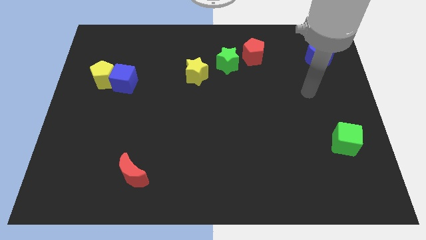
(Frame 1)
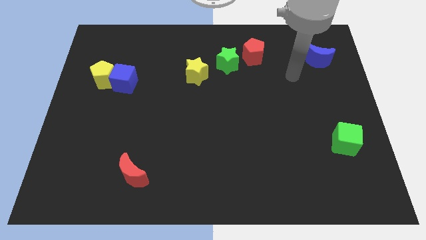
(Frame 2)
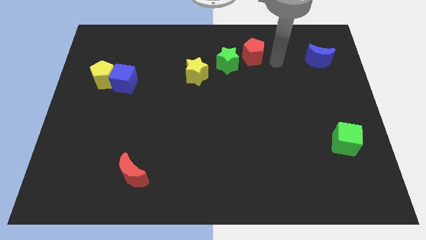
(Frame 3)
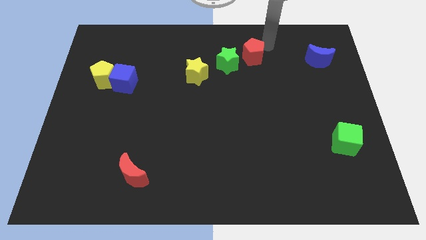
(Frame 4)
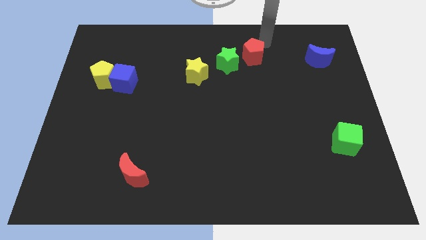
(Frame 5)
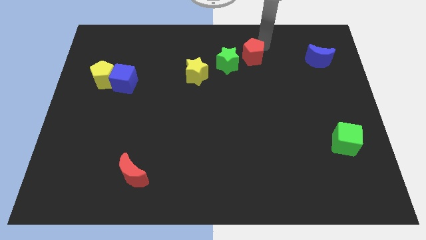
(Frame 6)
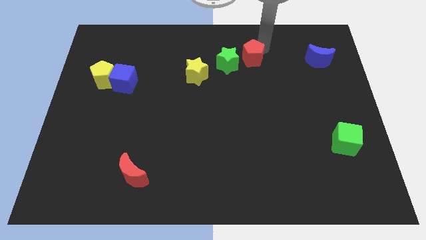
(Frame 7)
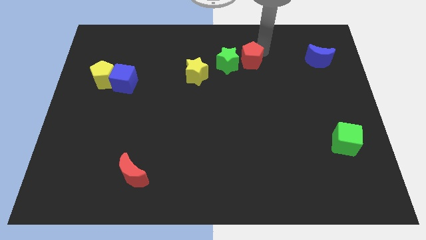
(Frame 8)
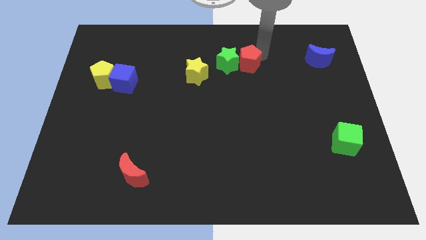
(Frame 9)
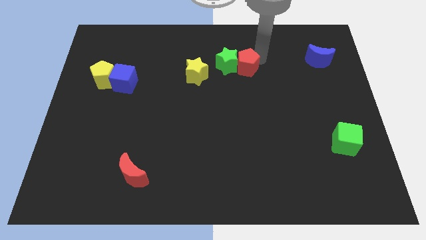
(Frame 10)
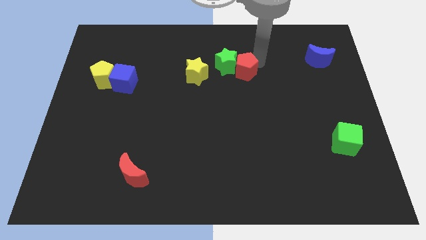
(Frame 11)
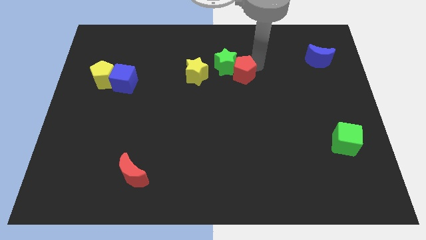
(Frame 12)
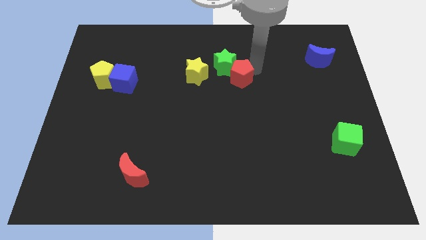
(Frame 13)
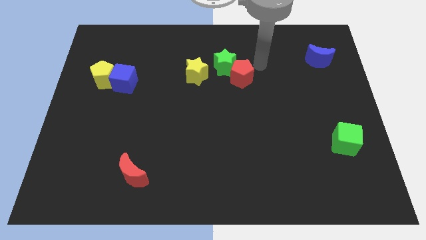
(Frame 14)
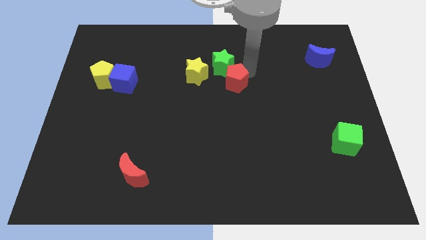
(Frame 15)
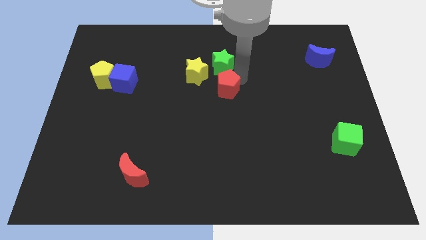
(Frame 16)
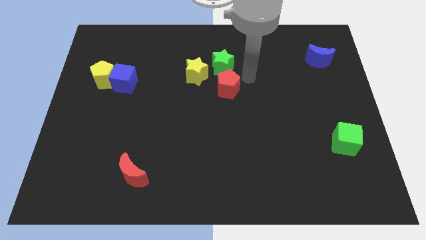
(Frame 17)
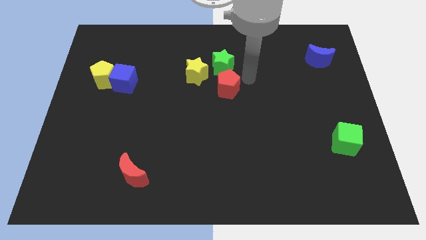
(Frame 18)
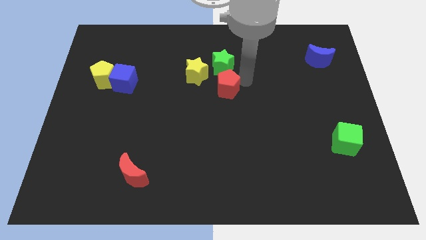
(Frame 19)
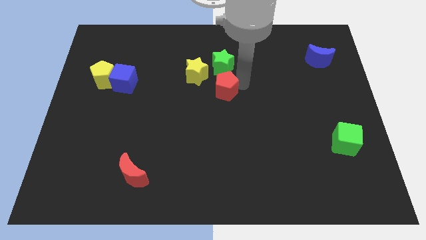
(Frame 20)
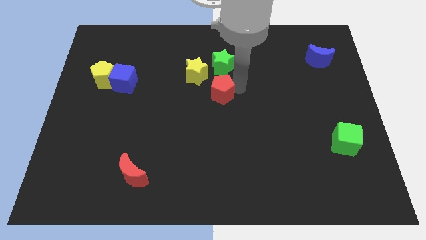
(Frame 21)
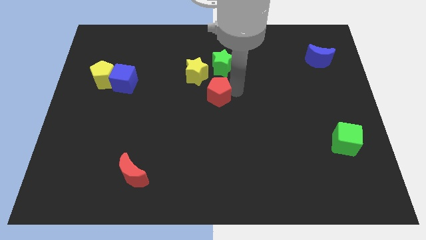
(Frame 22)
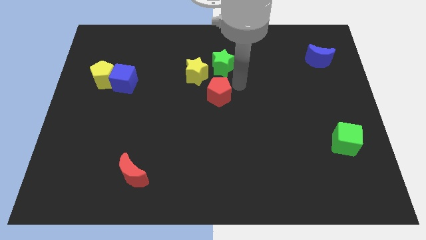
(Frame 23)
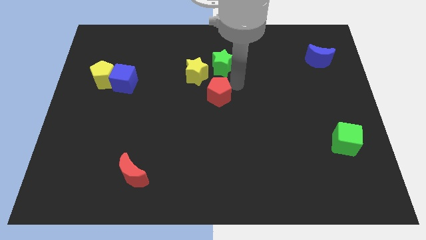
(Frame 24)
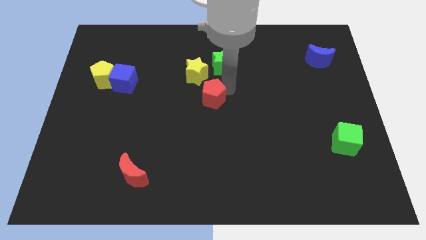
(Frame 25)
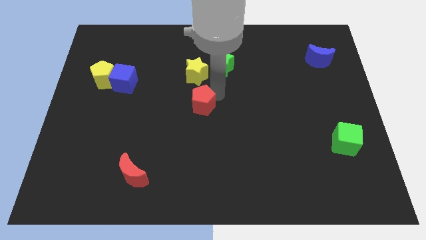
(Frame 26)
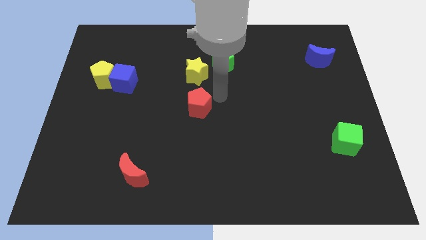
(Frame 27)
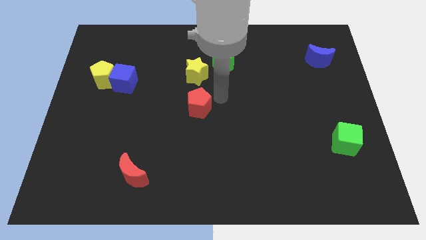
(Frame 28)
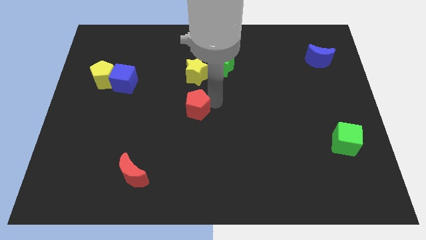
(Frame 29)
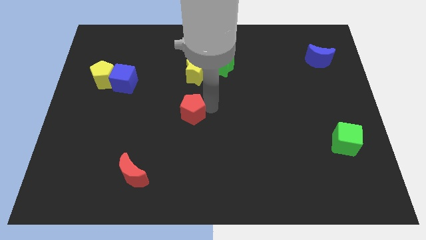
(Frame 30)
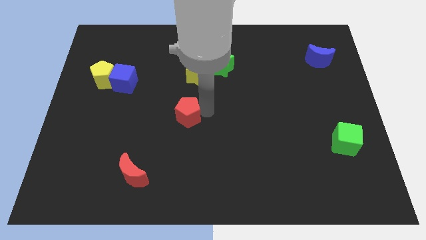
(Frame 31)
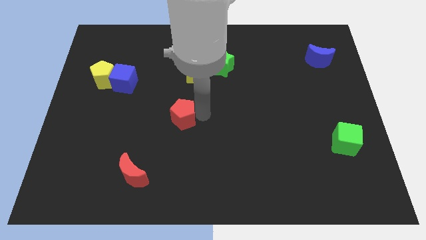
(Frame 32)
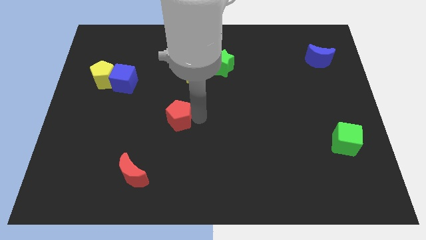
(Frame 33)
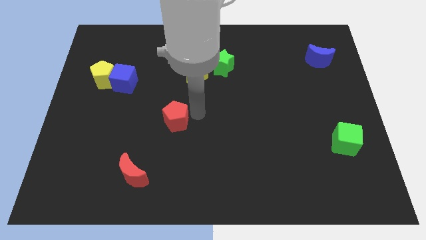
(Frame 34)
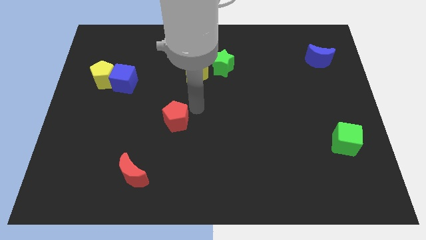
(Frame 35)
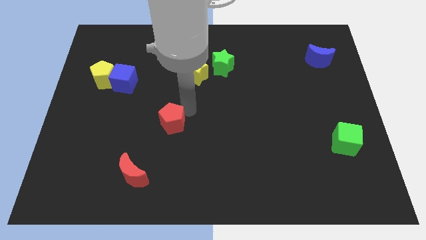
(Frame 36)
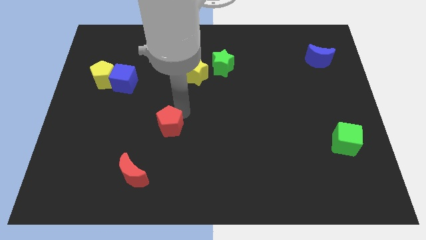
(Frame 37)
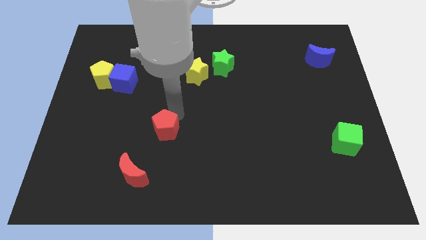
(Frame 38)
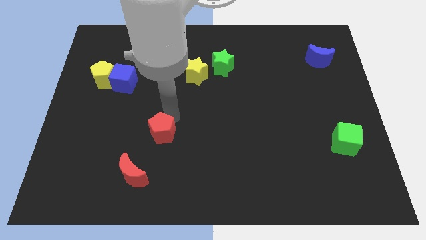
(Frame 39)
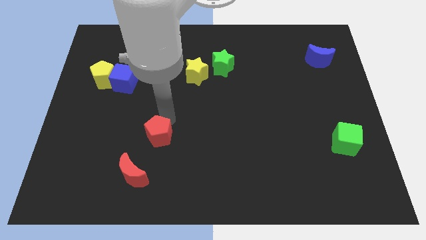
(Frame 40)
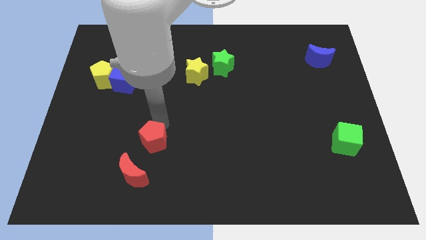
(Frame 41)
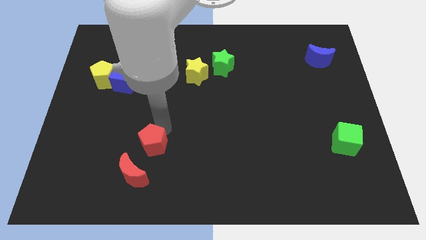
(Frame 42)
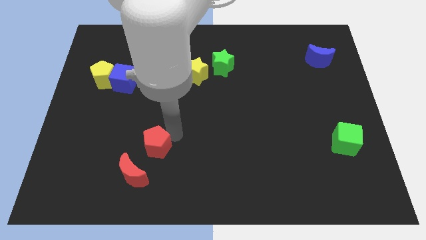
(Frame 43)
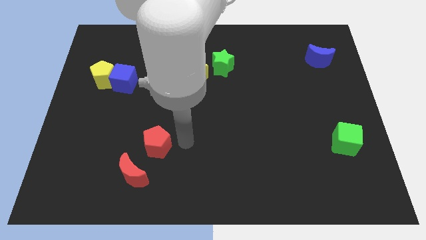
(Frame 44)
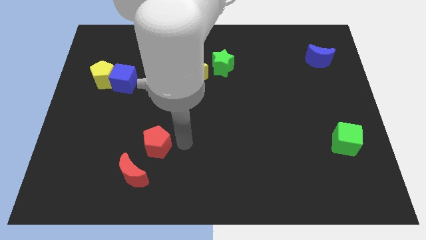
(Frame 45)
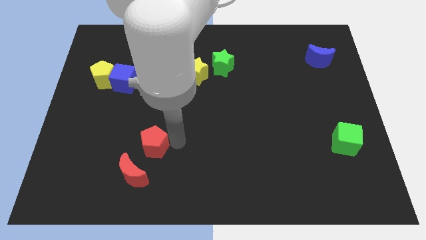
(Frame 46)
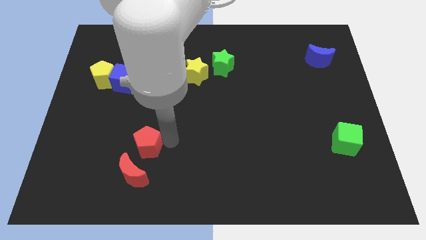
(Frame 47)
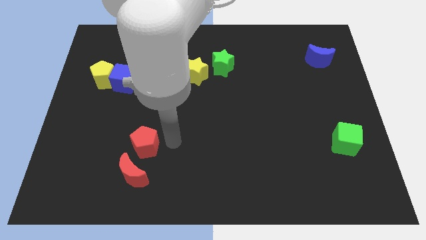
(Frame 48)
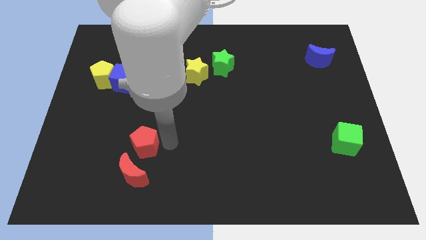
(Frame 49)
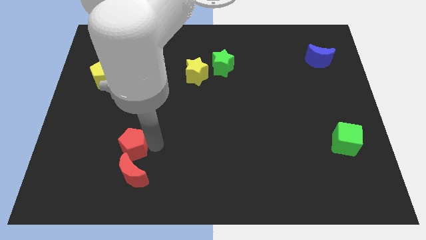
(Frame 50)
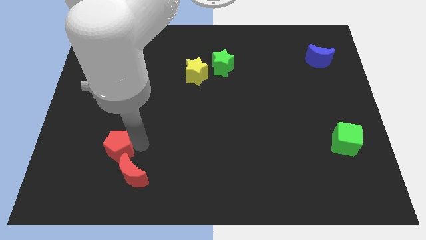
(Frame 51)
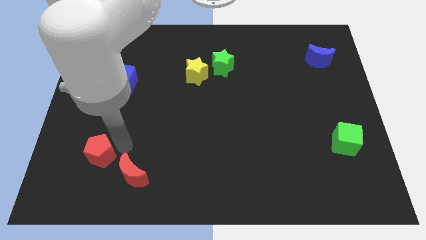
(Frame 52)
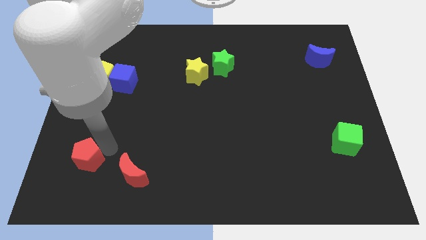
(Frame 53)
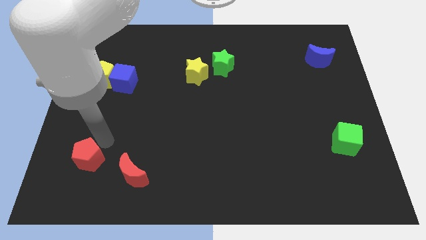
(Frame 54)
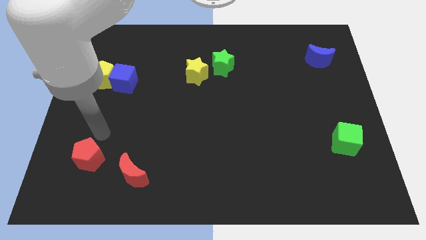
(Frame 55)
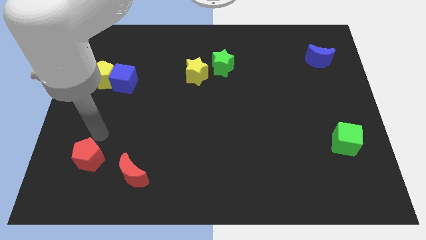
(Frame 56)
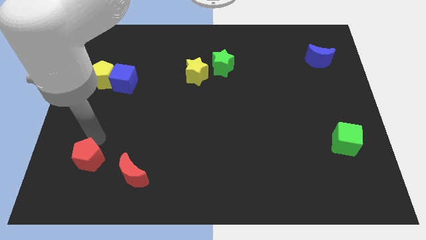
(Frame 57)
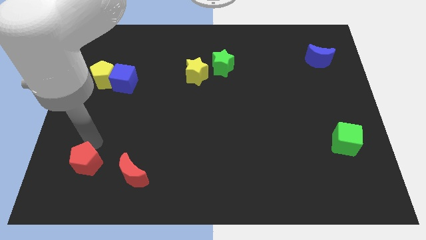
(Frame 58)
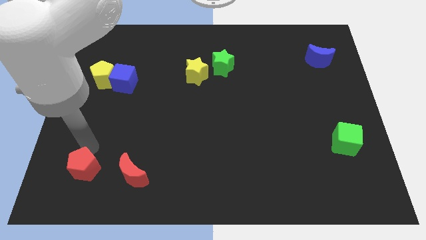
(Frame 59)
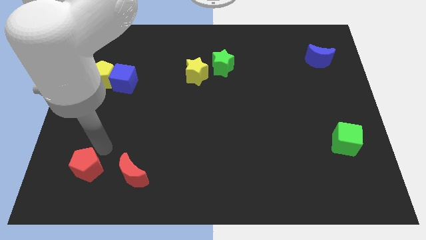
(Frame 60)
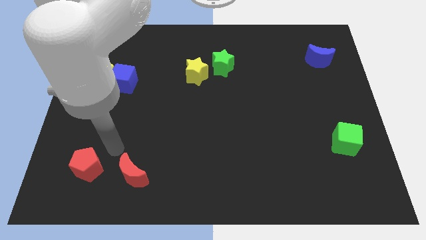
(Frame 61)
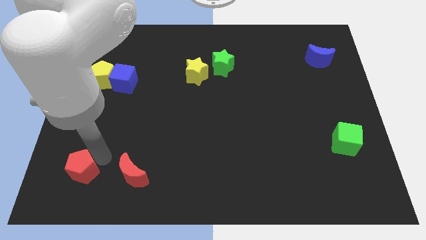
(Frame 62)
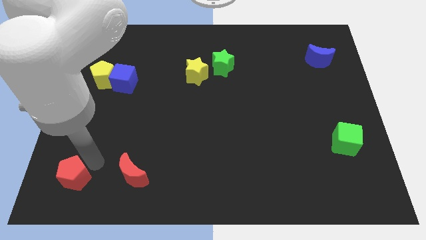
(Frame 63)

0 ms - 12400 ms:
push the red pentagon to the bottom left

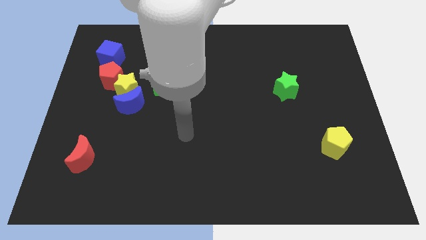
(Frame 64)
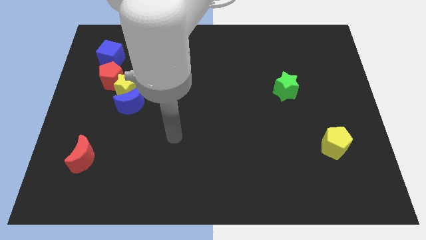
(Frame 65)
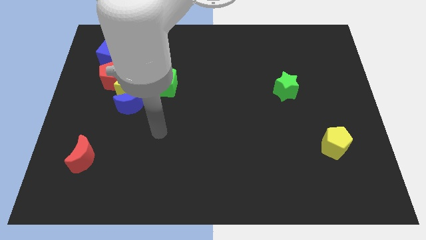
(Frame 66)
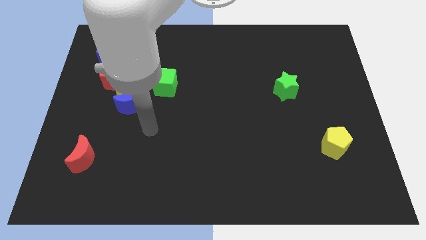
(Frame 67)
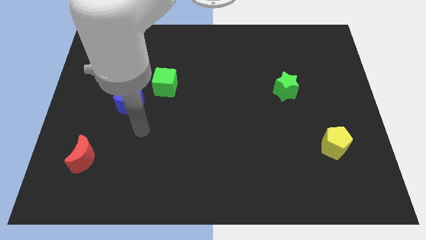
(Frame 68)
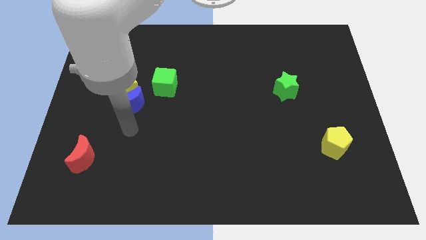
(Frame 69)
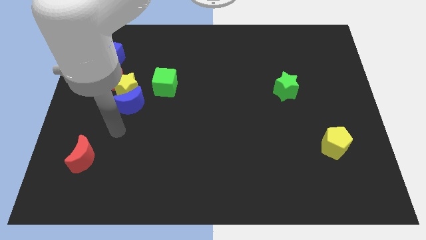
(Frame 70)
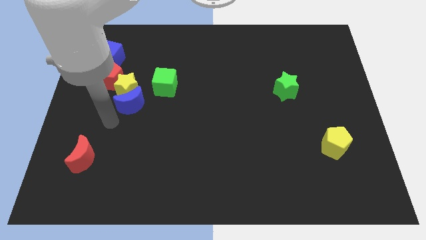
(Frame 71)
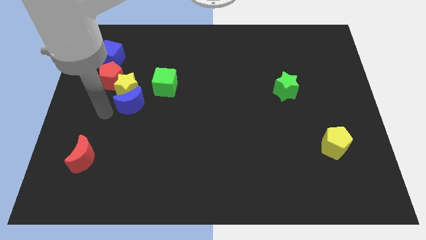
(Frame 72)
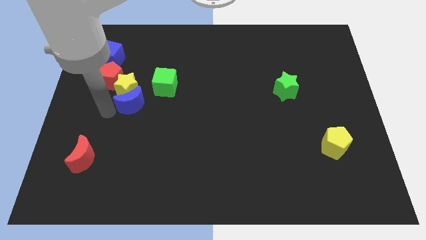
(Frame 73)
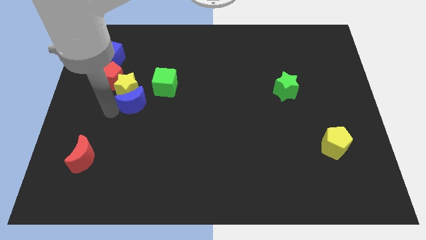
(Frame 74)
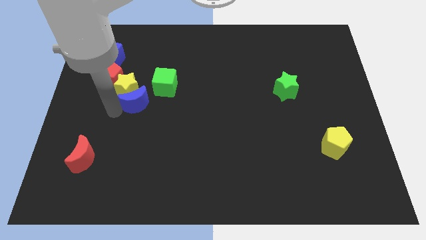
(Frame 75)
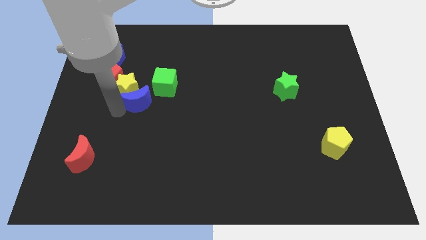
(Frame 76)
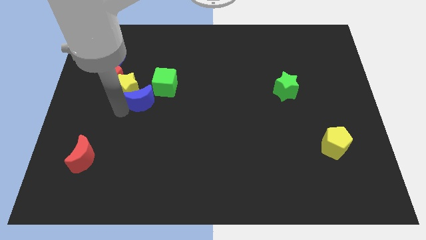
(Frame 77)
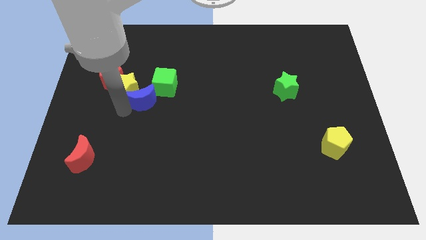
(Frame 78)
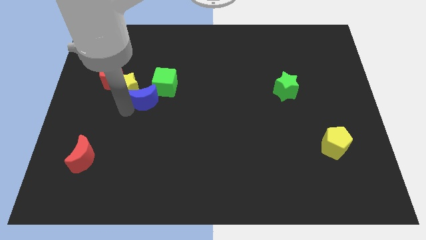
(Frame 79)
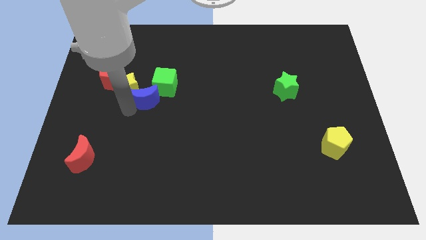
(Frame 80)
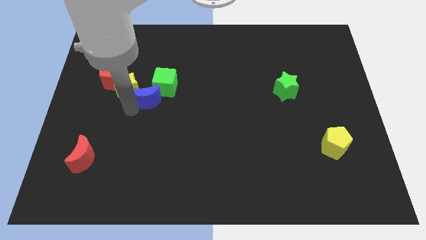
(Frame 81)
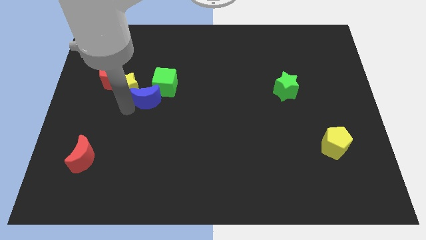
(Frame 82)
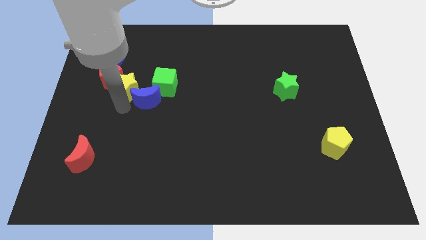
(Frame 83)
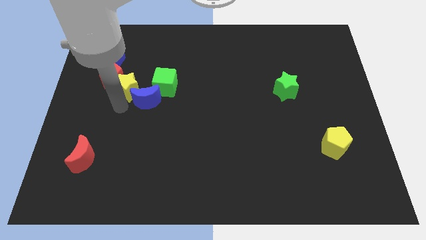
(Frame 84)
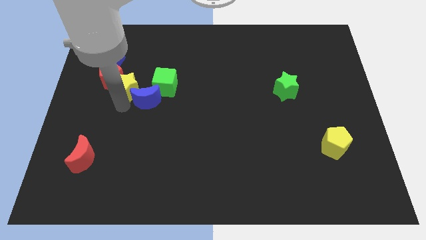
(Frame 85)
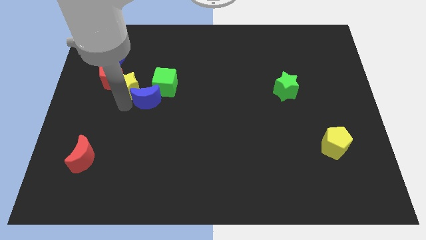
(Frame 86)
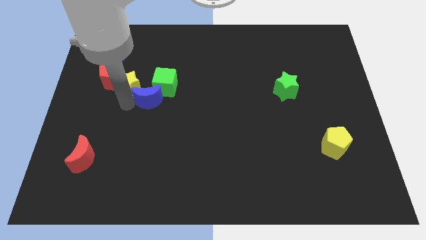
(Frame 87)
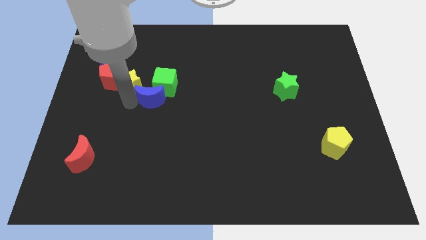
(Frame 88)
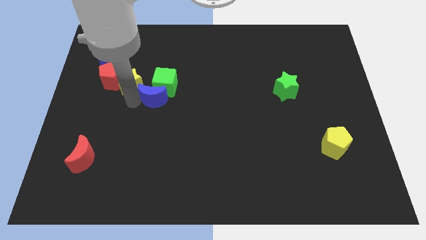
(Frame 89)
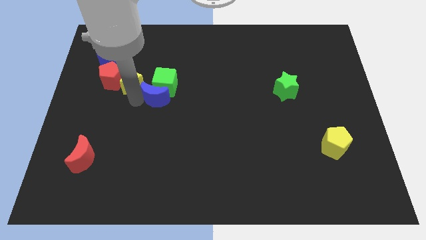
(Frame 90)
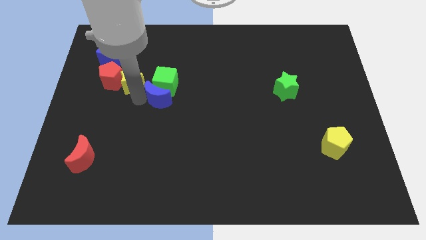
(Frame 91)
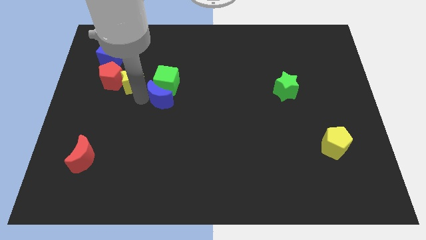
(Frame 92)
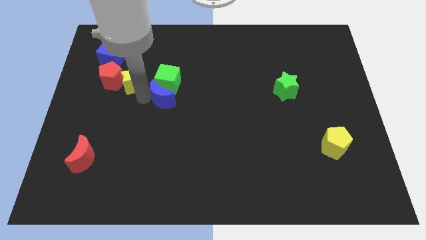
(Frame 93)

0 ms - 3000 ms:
slide the blue moon to the center of the board
